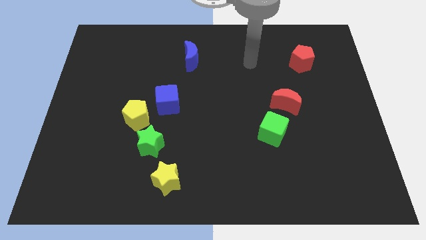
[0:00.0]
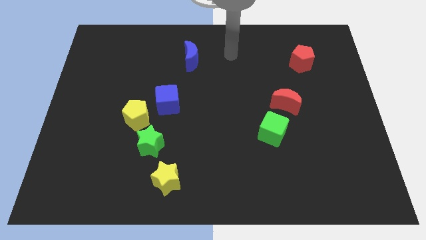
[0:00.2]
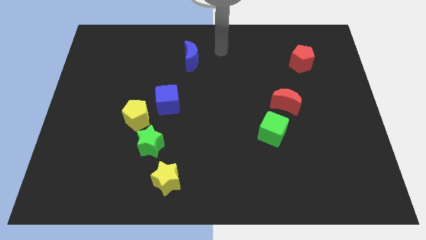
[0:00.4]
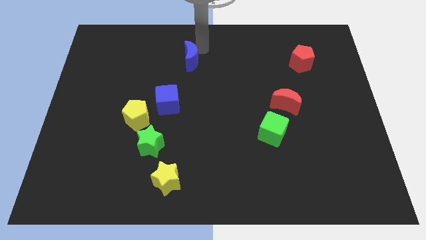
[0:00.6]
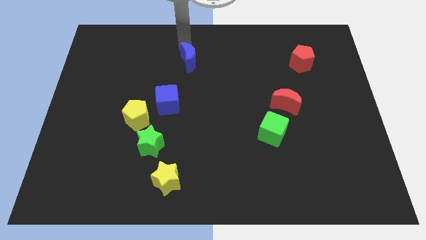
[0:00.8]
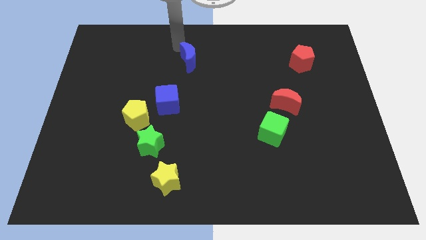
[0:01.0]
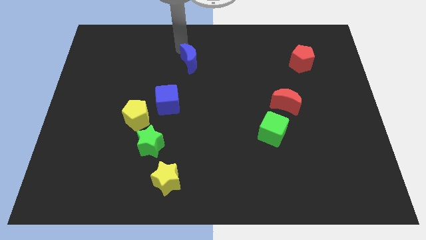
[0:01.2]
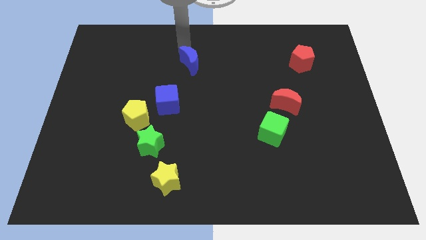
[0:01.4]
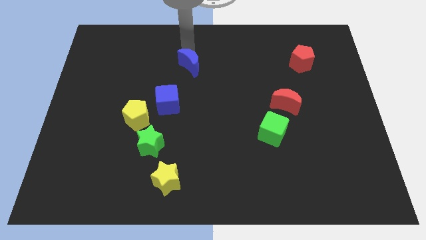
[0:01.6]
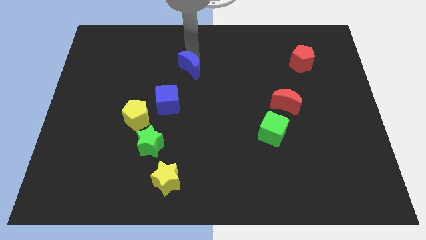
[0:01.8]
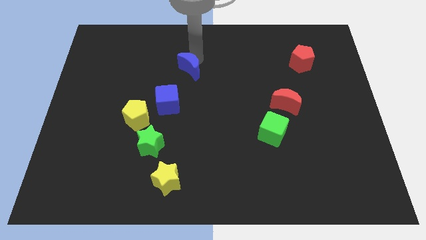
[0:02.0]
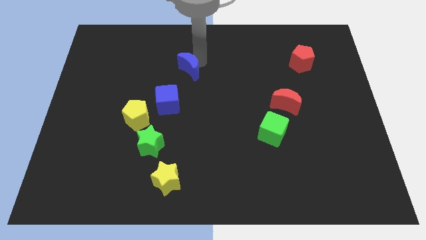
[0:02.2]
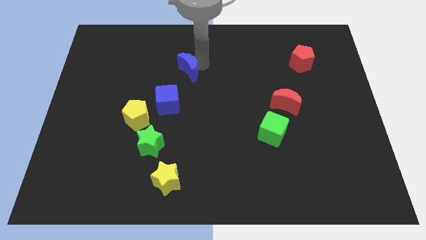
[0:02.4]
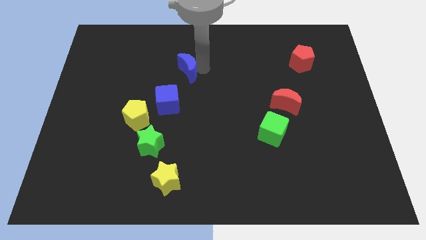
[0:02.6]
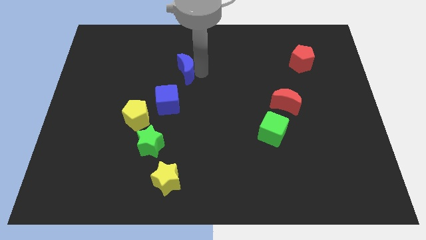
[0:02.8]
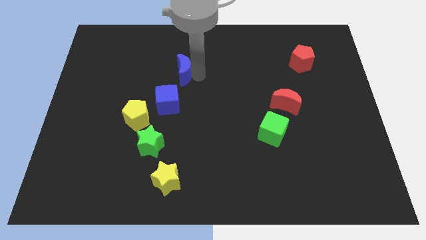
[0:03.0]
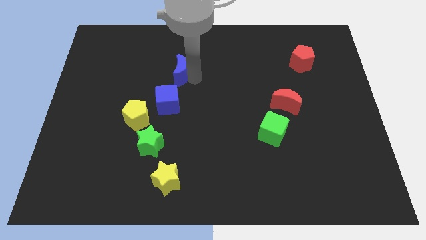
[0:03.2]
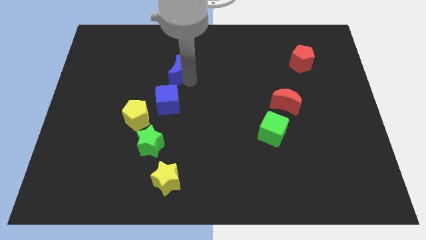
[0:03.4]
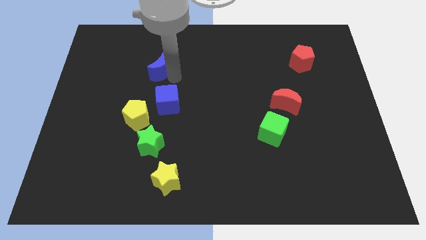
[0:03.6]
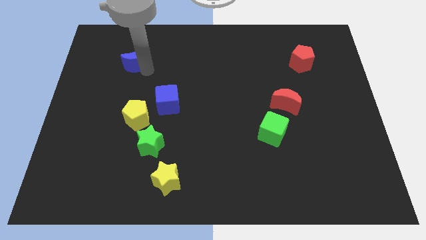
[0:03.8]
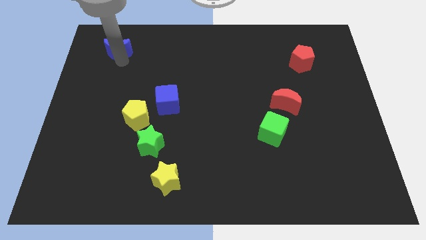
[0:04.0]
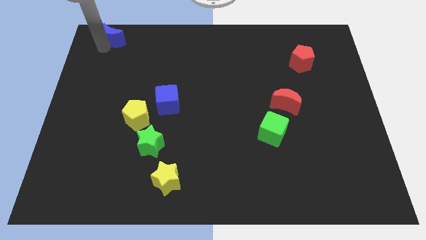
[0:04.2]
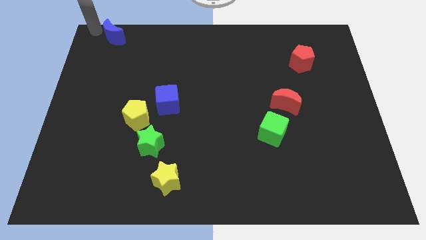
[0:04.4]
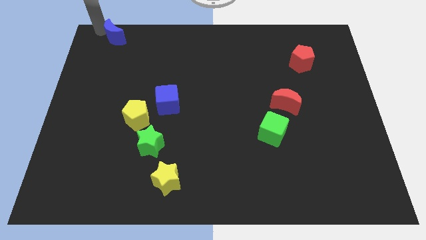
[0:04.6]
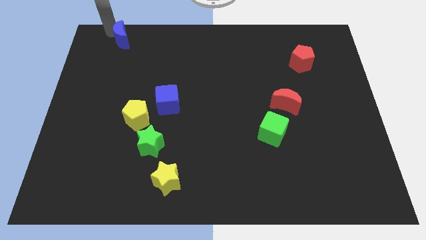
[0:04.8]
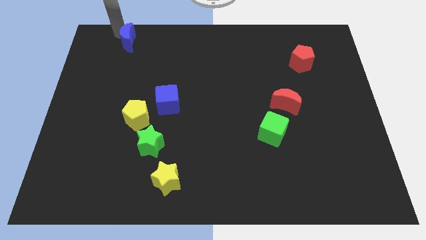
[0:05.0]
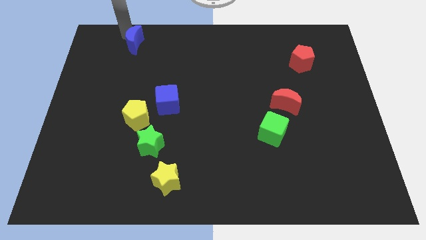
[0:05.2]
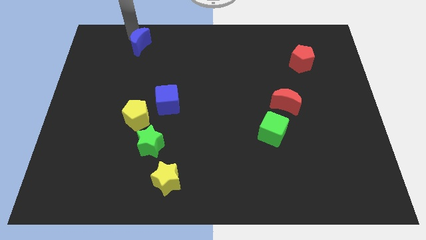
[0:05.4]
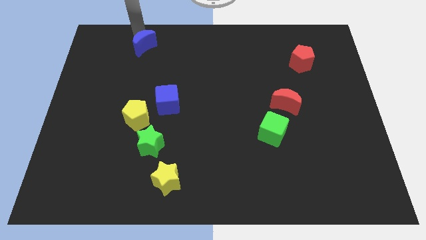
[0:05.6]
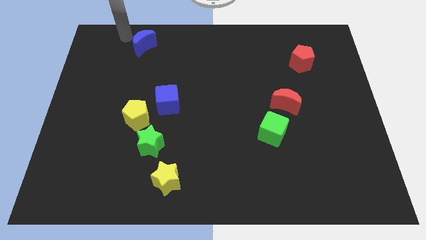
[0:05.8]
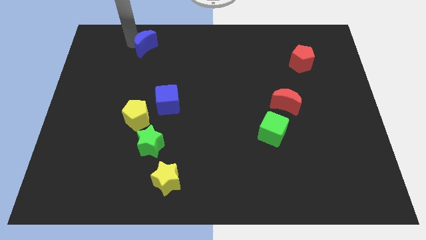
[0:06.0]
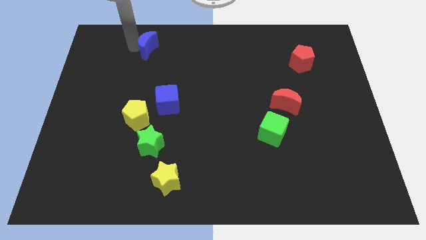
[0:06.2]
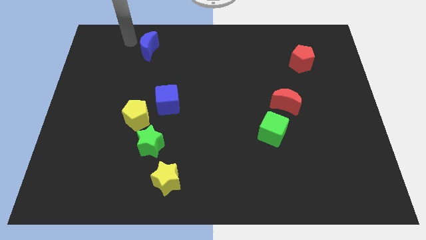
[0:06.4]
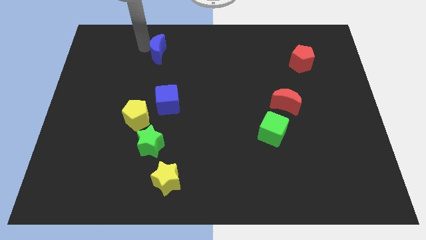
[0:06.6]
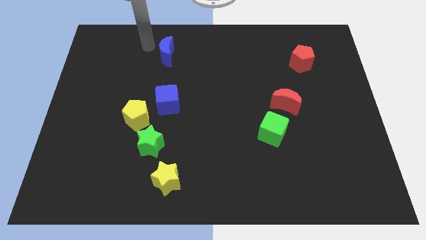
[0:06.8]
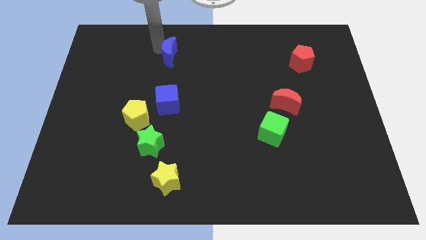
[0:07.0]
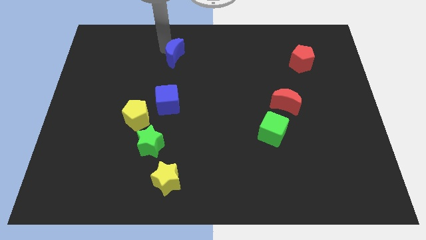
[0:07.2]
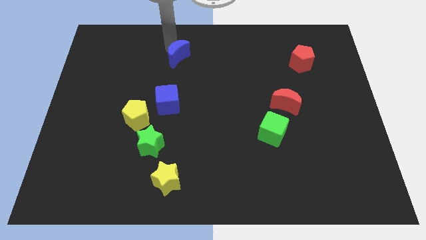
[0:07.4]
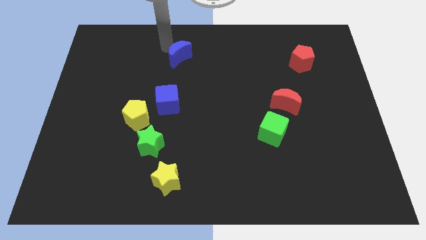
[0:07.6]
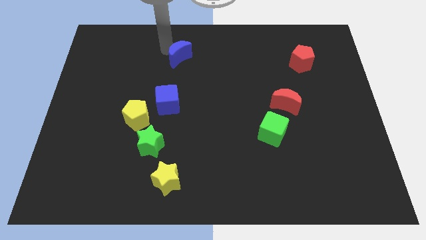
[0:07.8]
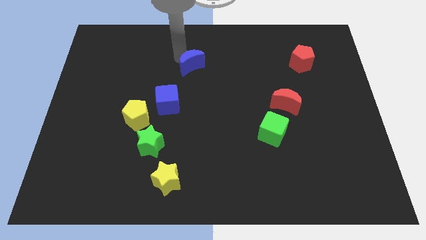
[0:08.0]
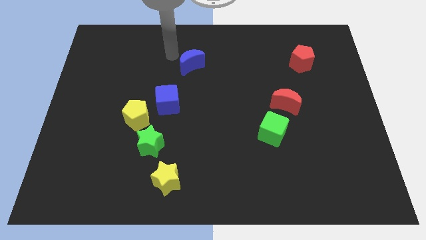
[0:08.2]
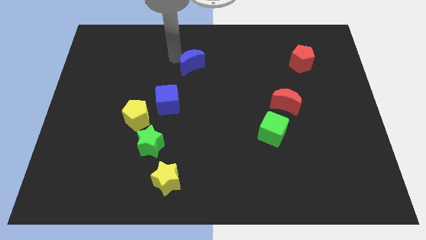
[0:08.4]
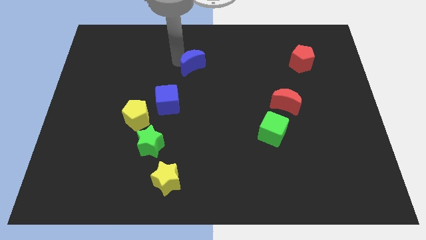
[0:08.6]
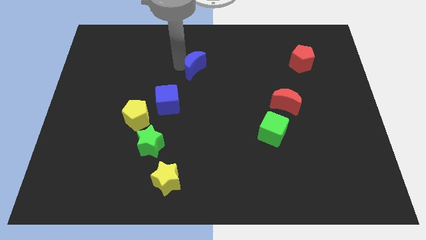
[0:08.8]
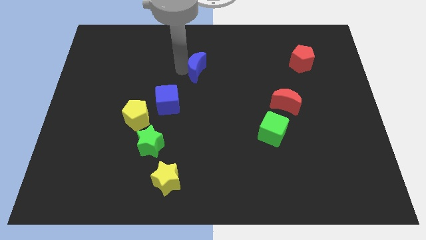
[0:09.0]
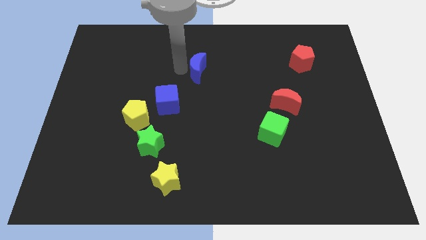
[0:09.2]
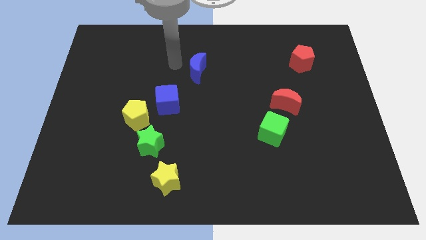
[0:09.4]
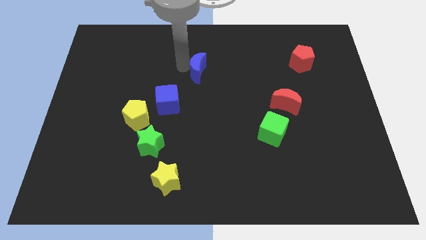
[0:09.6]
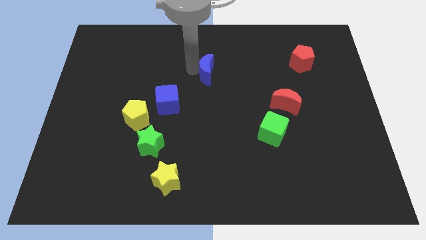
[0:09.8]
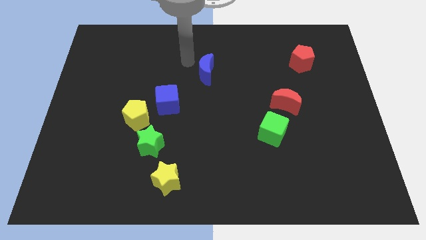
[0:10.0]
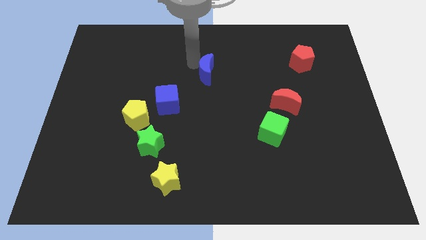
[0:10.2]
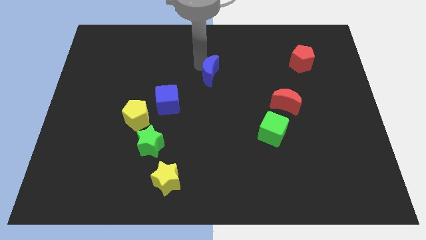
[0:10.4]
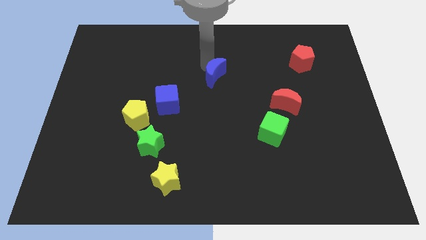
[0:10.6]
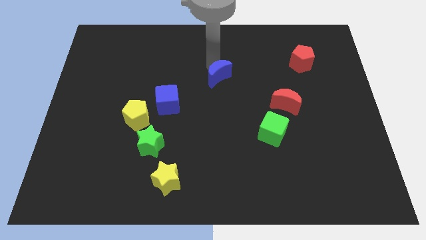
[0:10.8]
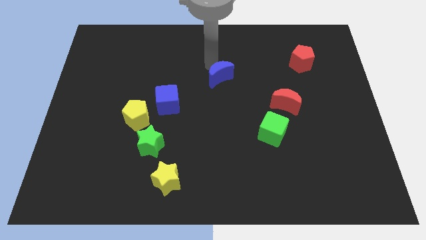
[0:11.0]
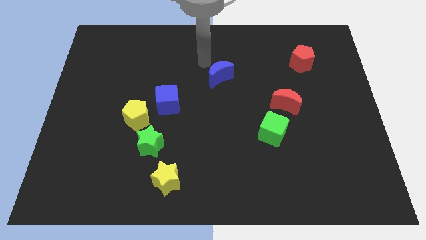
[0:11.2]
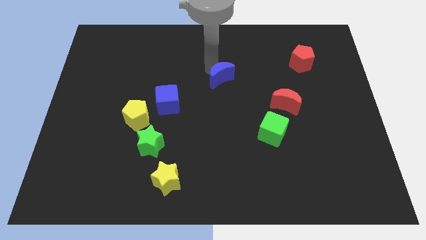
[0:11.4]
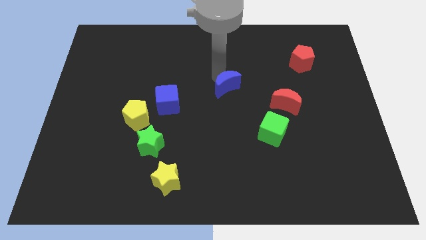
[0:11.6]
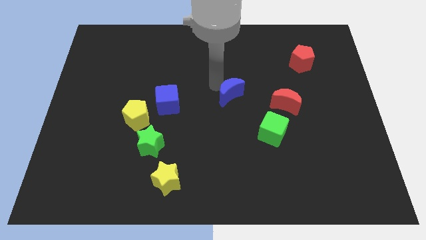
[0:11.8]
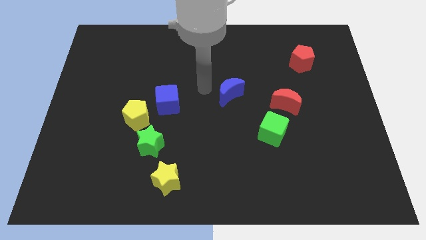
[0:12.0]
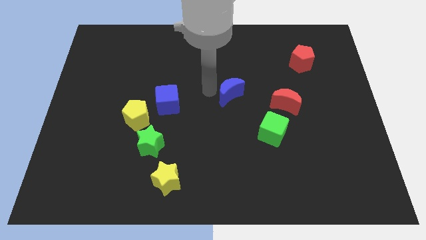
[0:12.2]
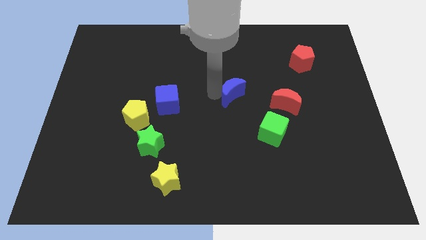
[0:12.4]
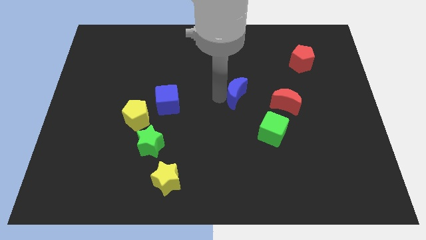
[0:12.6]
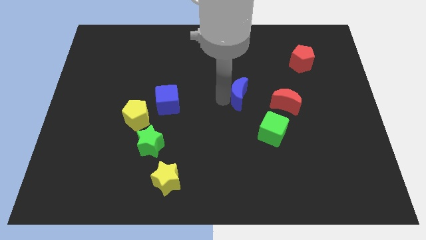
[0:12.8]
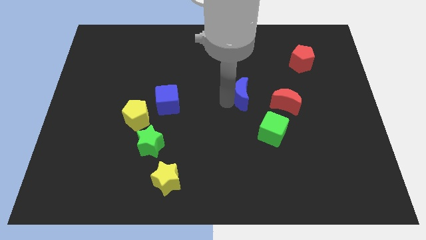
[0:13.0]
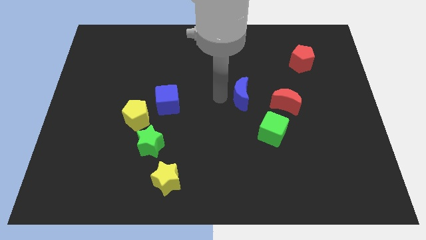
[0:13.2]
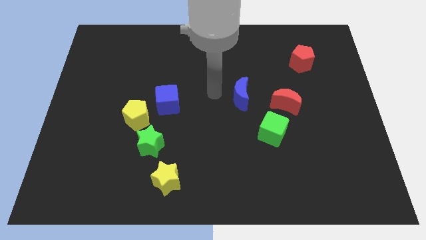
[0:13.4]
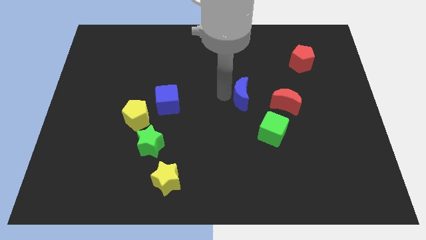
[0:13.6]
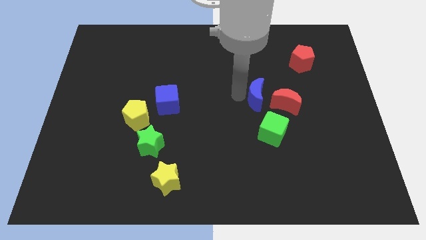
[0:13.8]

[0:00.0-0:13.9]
slide the blue moon diagonally down and right

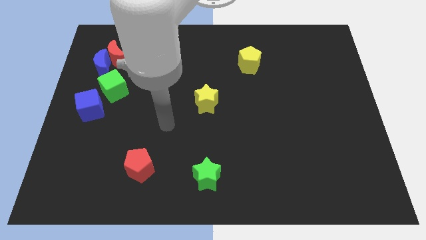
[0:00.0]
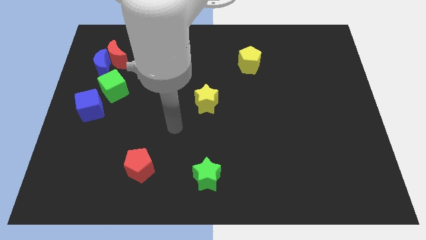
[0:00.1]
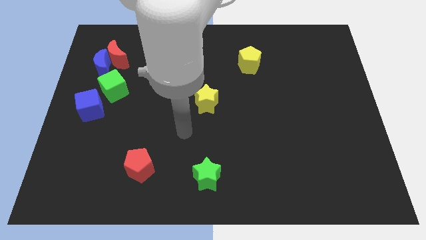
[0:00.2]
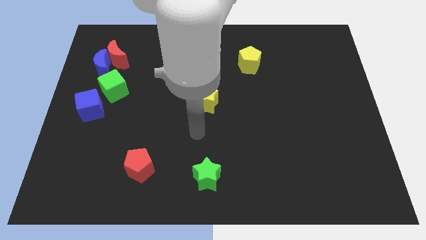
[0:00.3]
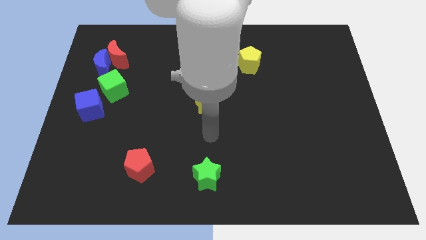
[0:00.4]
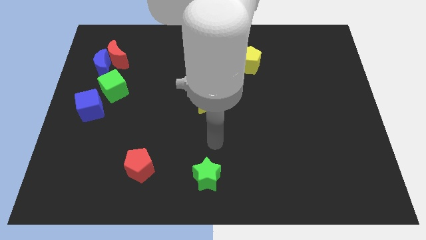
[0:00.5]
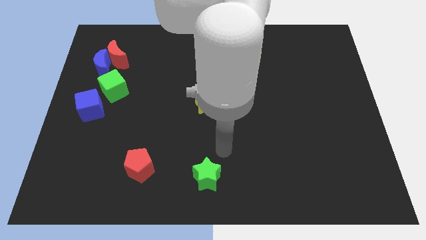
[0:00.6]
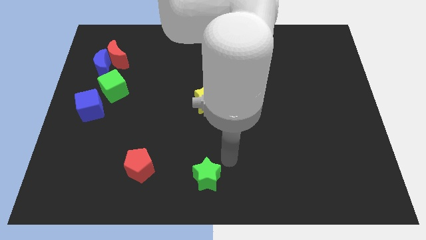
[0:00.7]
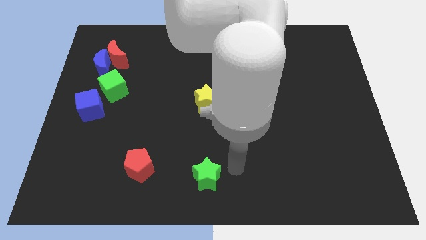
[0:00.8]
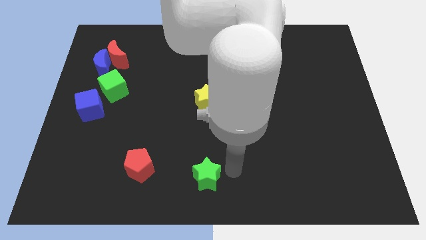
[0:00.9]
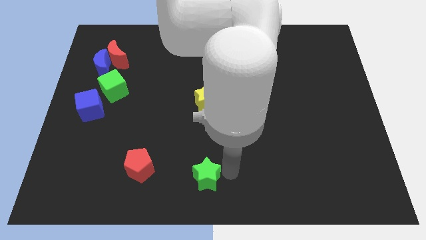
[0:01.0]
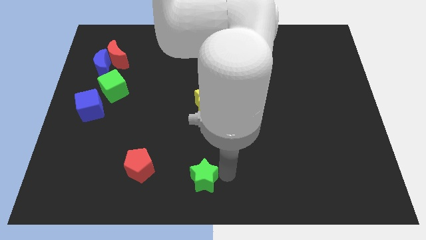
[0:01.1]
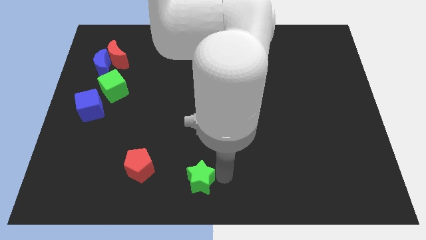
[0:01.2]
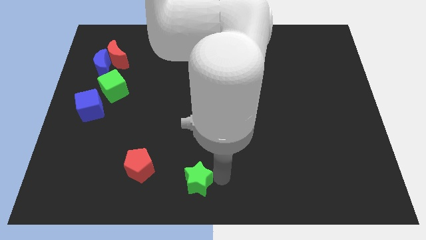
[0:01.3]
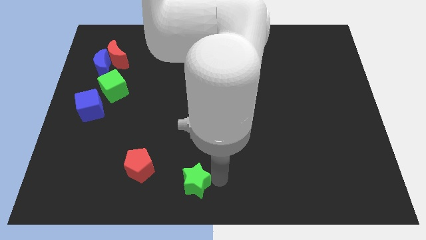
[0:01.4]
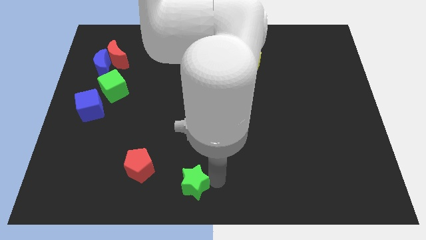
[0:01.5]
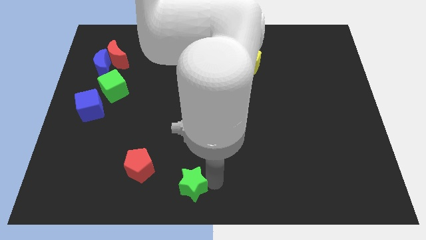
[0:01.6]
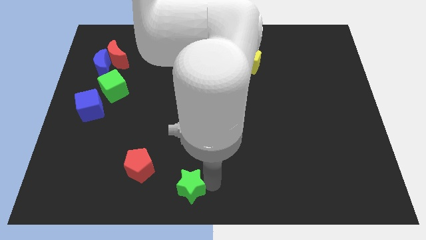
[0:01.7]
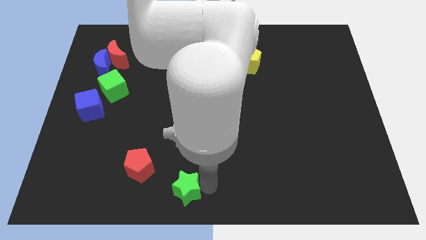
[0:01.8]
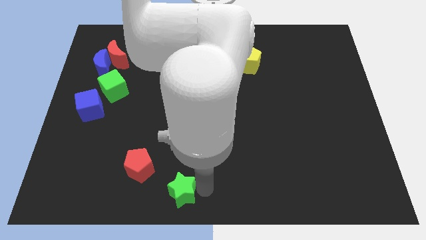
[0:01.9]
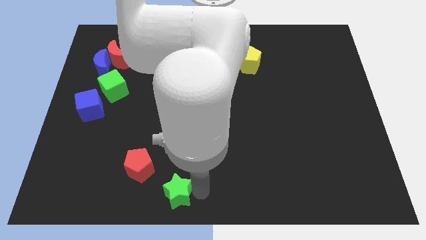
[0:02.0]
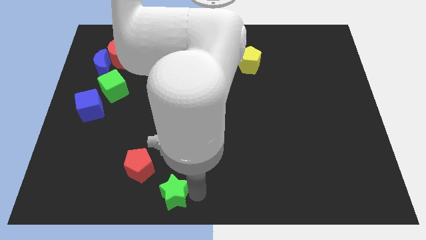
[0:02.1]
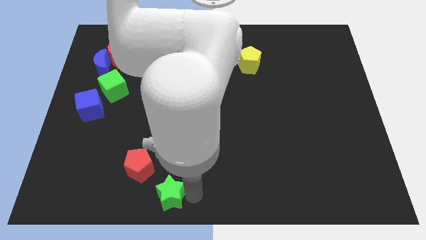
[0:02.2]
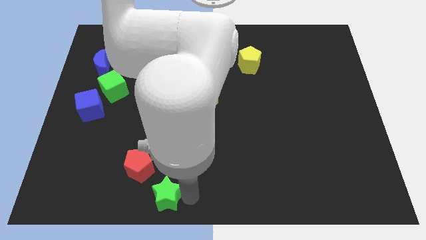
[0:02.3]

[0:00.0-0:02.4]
slide the green star to the left somewhat
